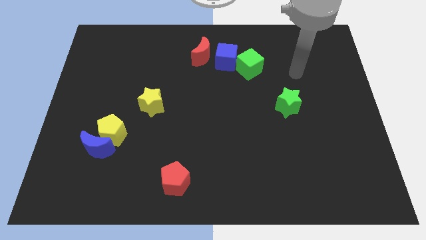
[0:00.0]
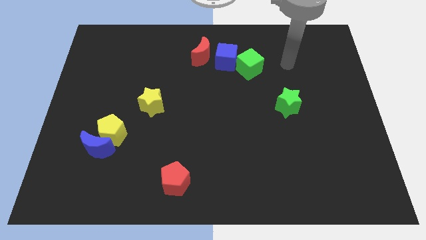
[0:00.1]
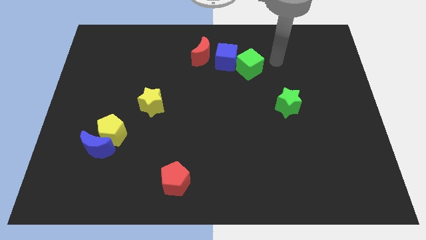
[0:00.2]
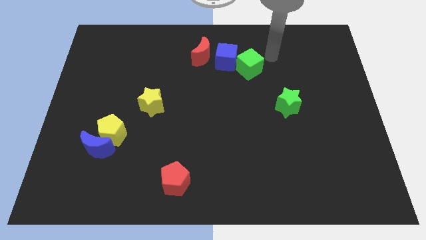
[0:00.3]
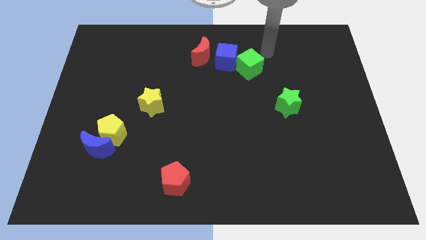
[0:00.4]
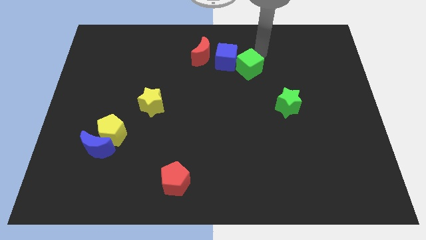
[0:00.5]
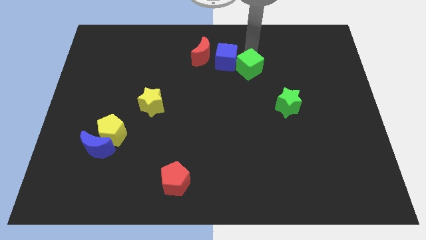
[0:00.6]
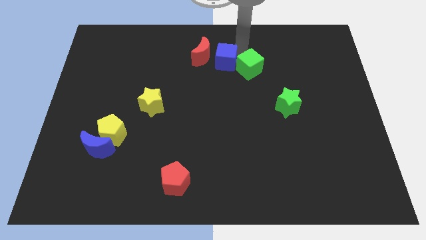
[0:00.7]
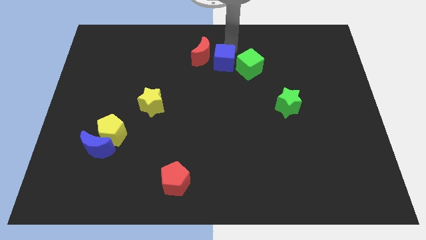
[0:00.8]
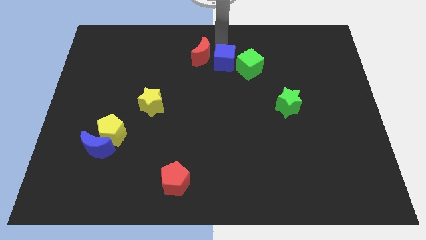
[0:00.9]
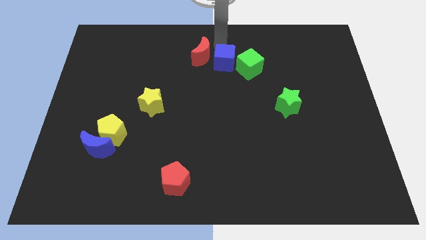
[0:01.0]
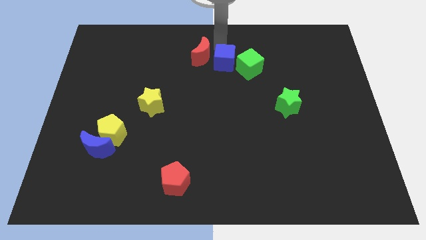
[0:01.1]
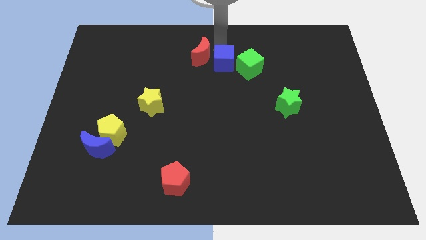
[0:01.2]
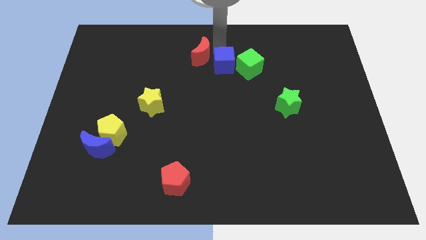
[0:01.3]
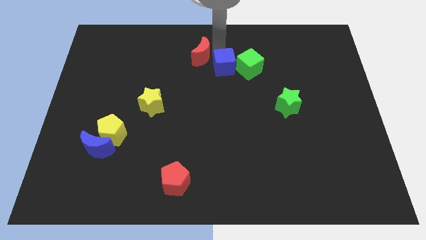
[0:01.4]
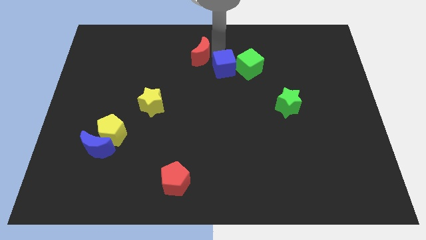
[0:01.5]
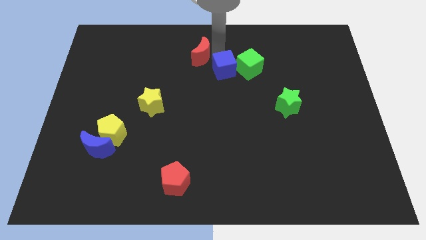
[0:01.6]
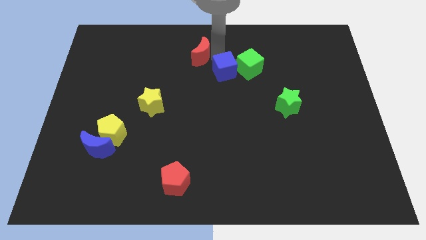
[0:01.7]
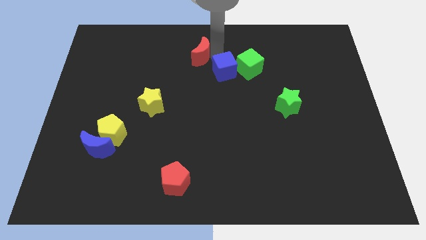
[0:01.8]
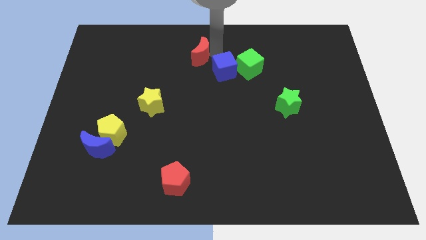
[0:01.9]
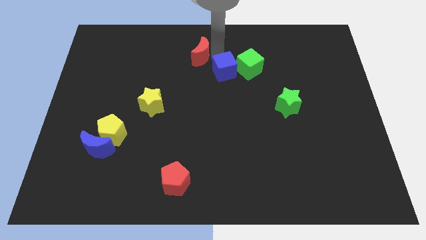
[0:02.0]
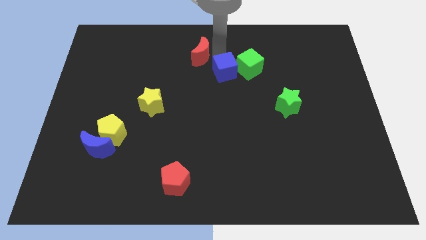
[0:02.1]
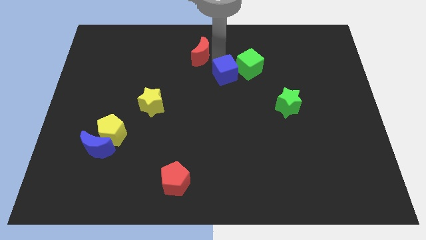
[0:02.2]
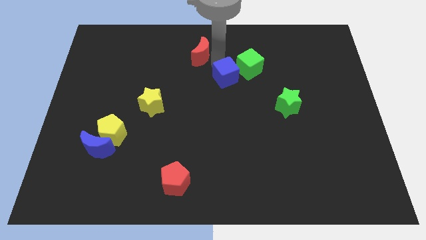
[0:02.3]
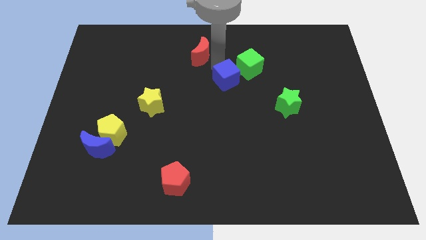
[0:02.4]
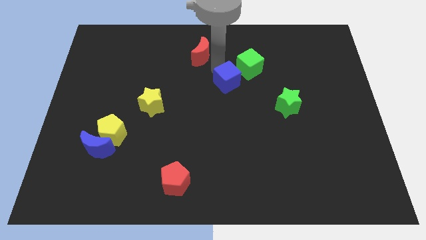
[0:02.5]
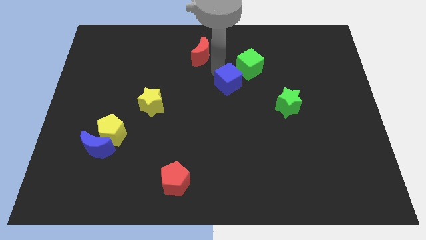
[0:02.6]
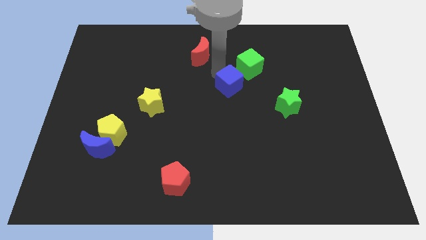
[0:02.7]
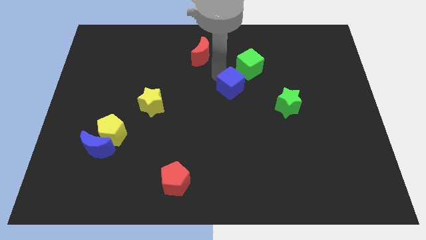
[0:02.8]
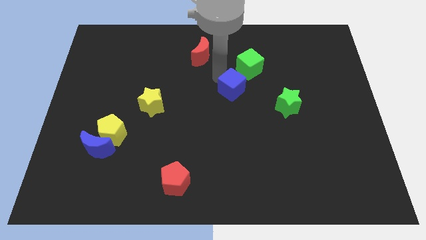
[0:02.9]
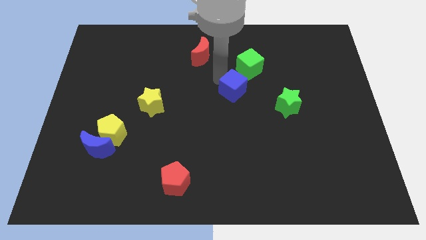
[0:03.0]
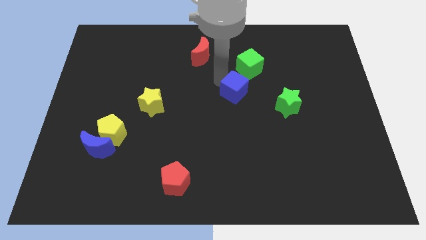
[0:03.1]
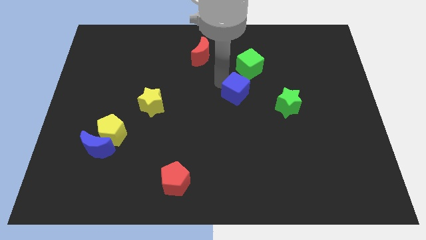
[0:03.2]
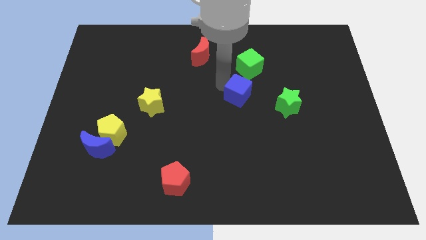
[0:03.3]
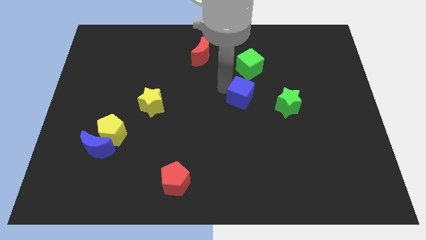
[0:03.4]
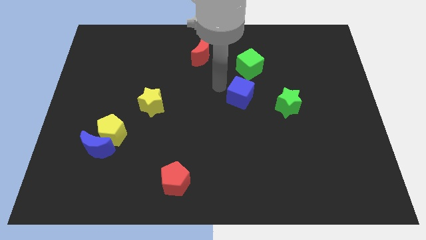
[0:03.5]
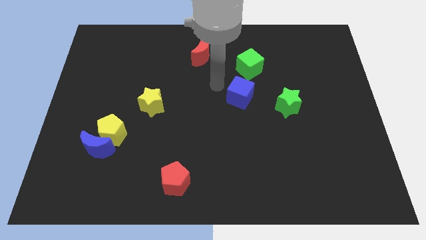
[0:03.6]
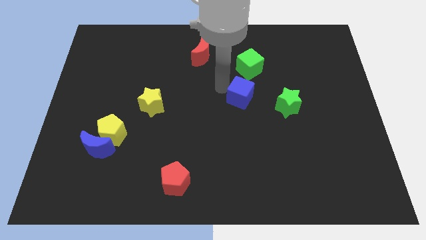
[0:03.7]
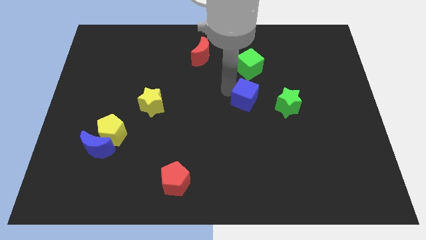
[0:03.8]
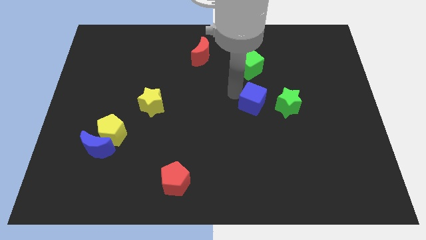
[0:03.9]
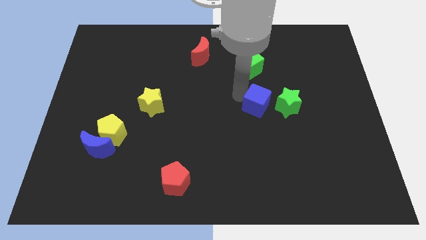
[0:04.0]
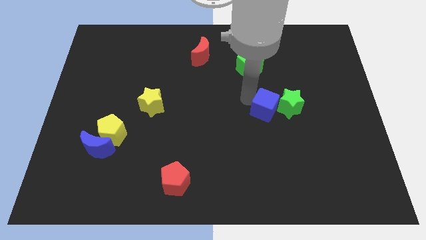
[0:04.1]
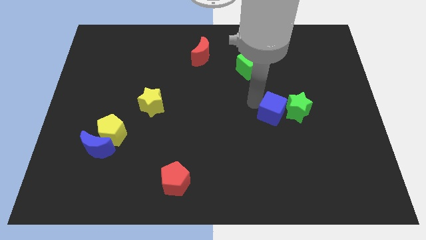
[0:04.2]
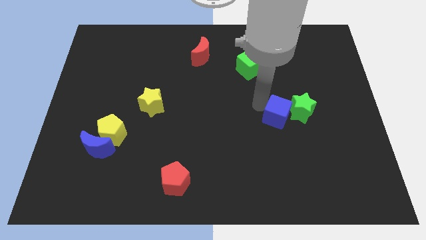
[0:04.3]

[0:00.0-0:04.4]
slide the blue cube diagonally down and to the right

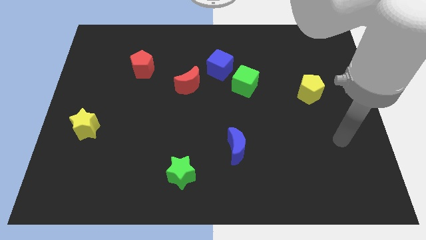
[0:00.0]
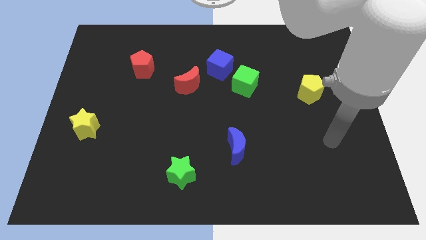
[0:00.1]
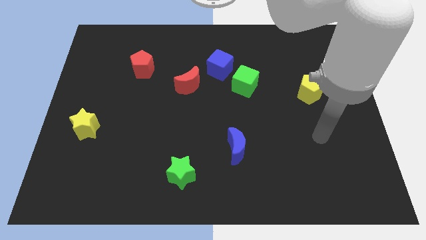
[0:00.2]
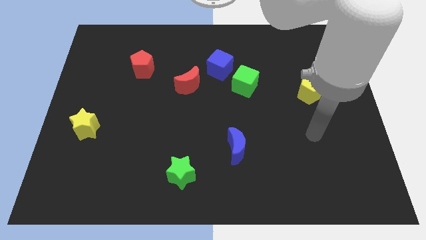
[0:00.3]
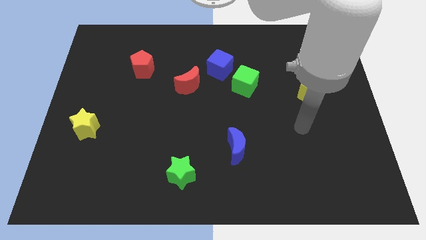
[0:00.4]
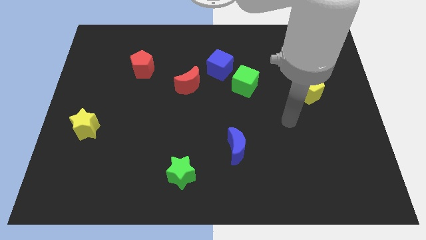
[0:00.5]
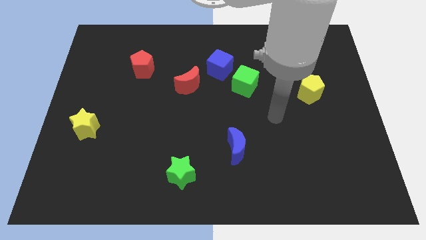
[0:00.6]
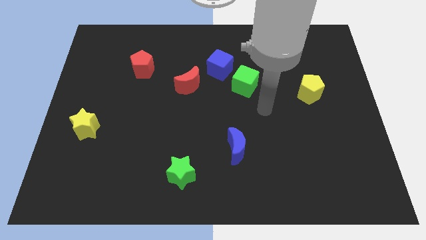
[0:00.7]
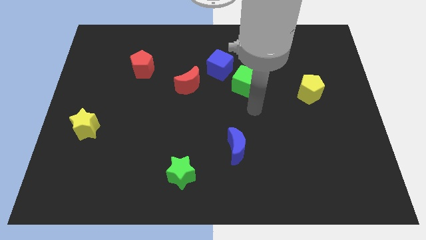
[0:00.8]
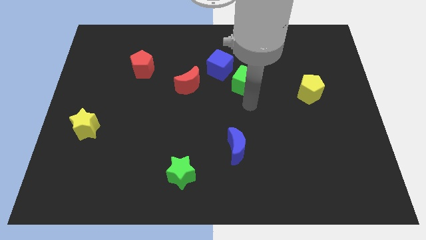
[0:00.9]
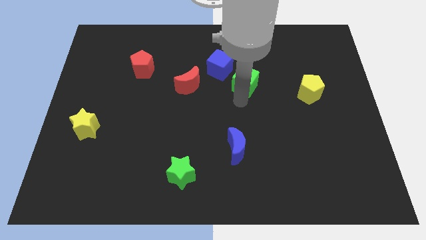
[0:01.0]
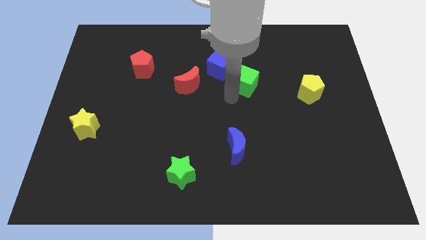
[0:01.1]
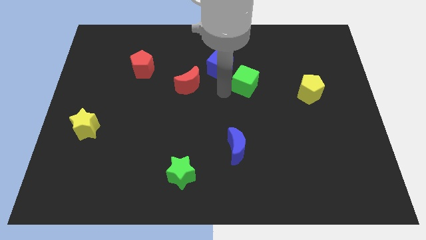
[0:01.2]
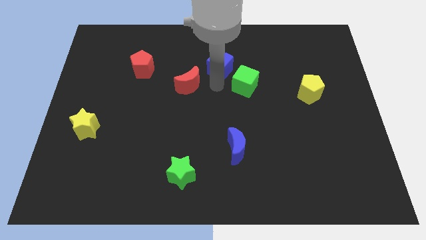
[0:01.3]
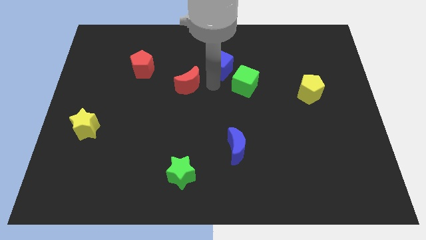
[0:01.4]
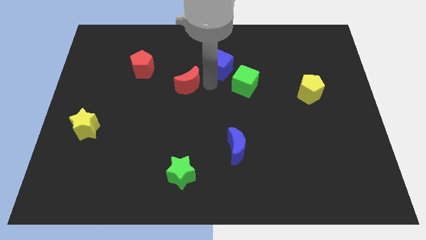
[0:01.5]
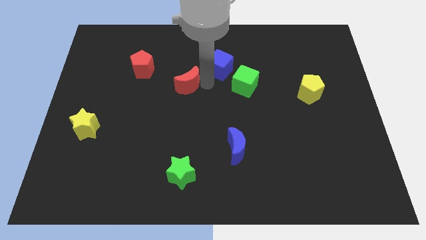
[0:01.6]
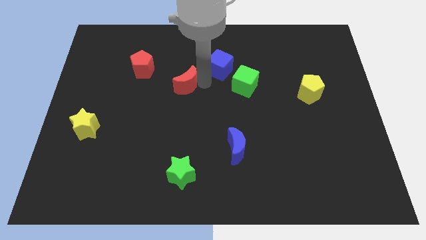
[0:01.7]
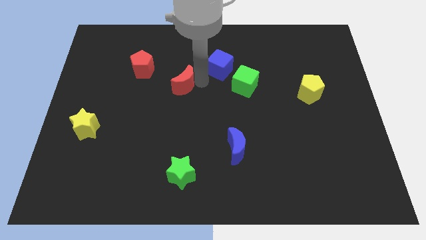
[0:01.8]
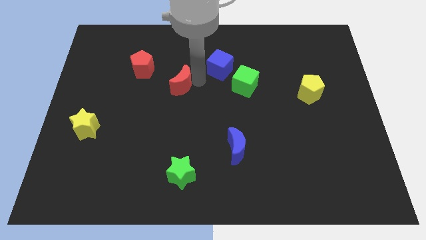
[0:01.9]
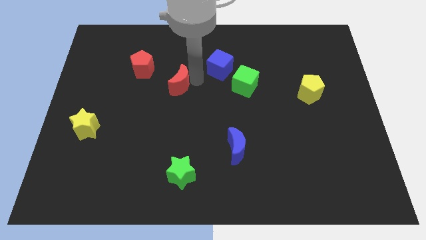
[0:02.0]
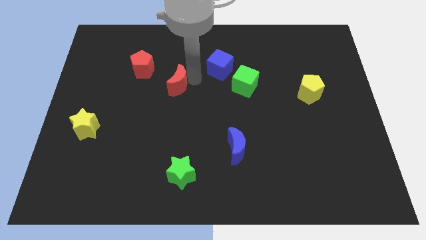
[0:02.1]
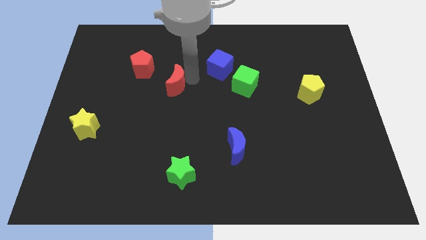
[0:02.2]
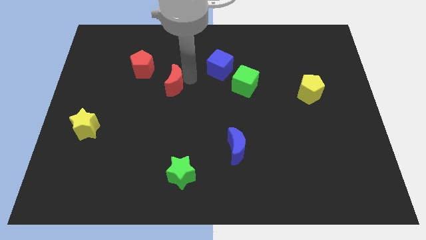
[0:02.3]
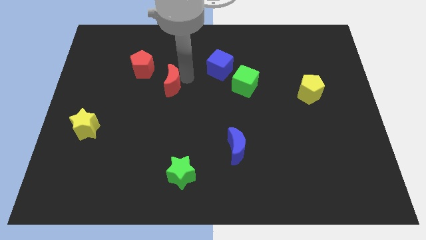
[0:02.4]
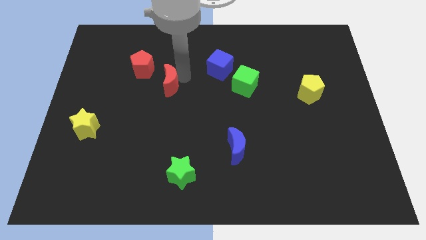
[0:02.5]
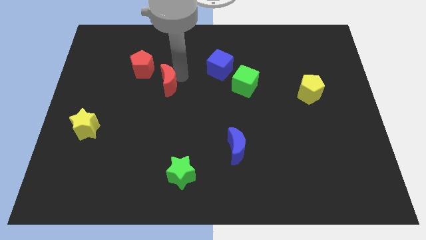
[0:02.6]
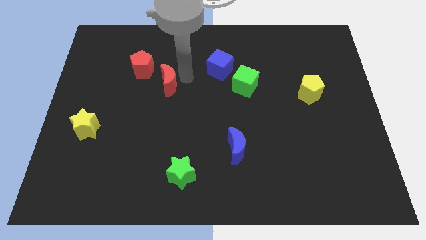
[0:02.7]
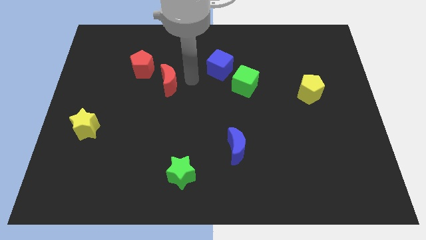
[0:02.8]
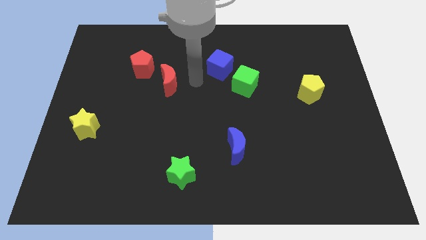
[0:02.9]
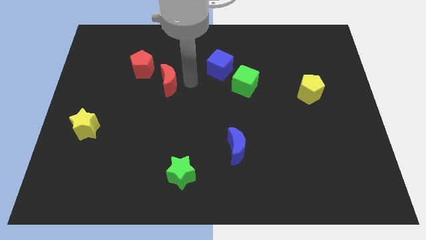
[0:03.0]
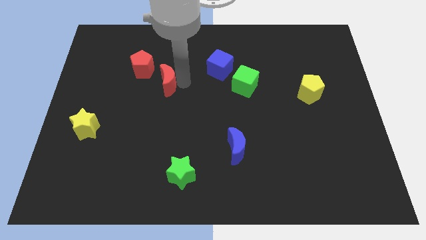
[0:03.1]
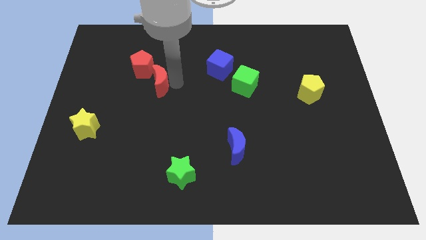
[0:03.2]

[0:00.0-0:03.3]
slide the red moon left a bit

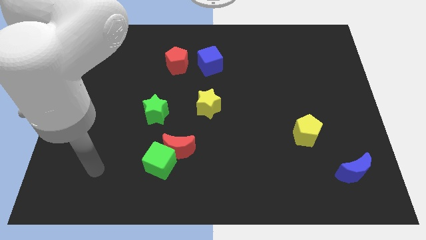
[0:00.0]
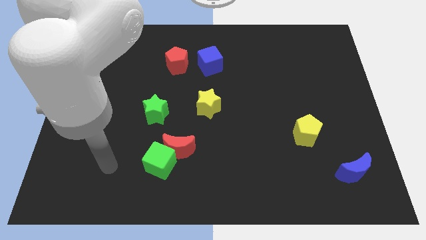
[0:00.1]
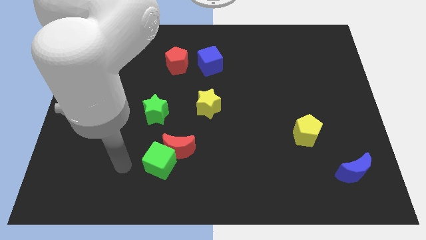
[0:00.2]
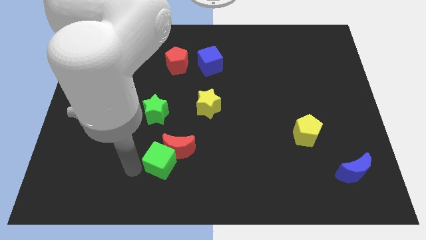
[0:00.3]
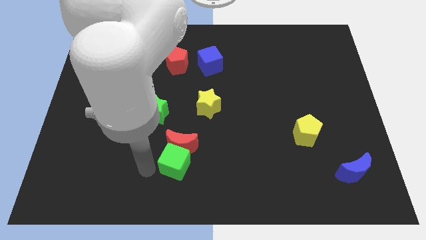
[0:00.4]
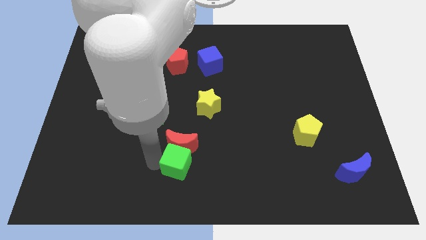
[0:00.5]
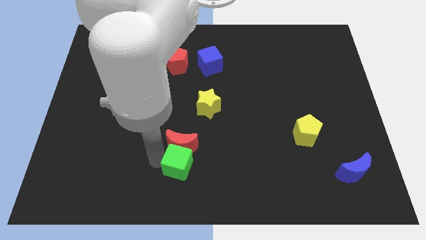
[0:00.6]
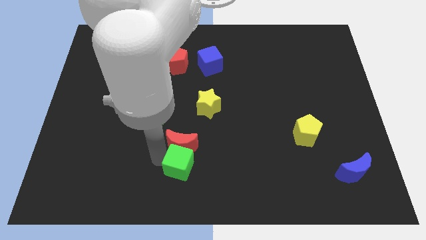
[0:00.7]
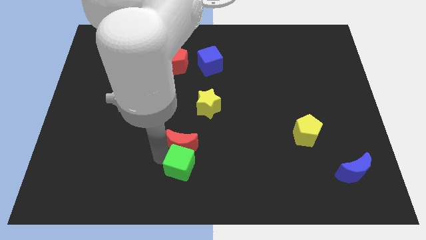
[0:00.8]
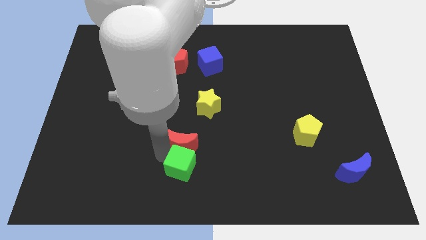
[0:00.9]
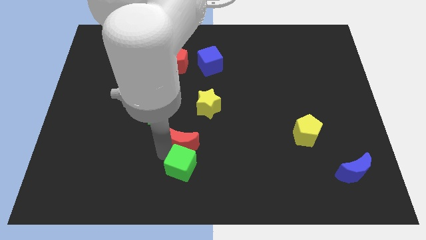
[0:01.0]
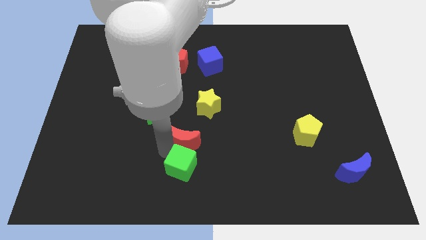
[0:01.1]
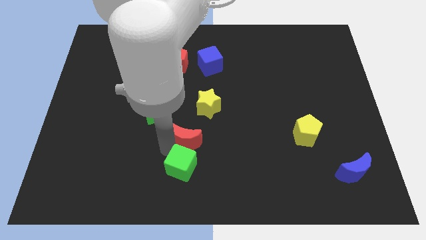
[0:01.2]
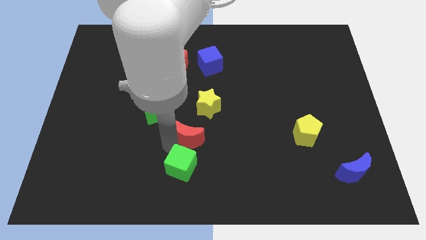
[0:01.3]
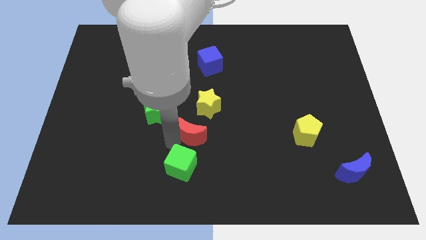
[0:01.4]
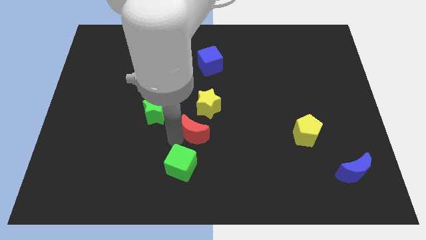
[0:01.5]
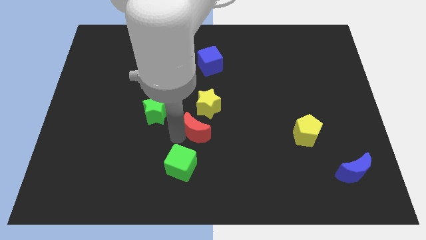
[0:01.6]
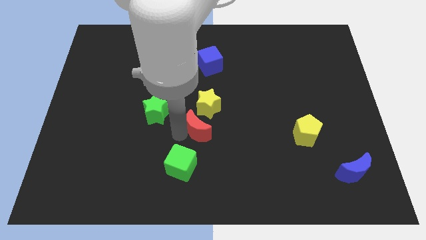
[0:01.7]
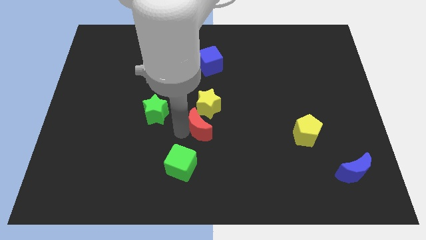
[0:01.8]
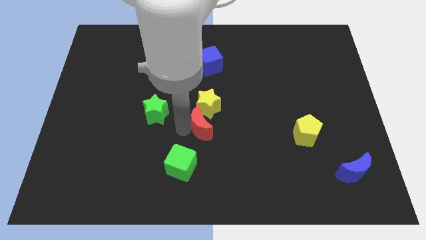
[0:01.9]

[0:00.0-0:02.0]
push the red moon up and right a bit
